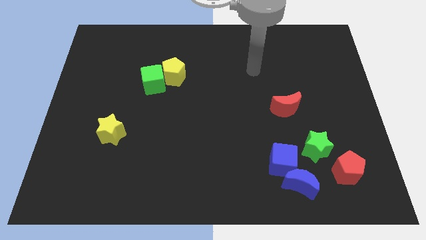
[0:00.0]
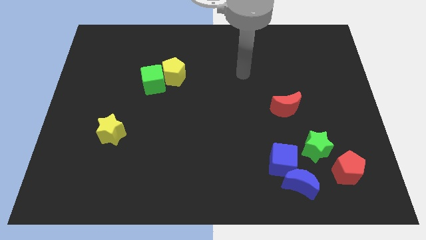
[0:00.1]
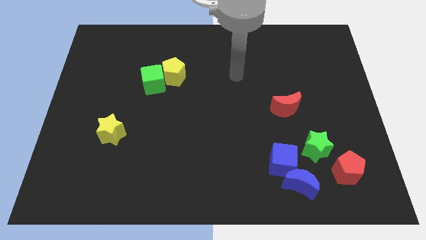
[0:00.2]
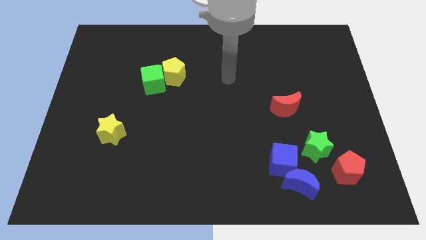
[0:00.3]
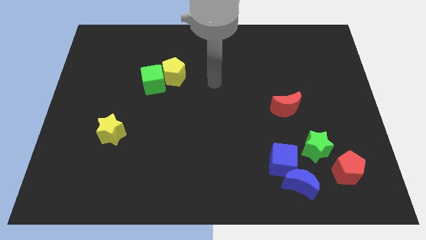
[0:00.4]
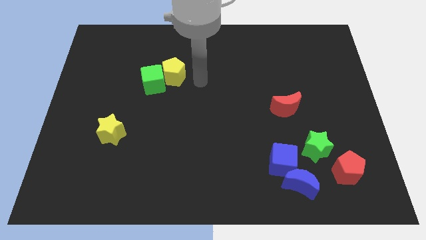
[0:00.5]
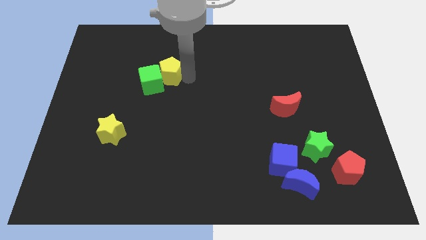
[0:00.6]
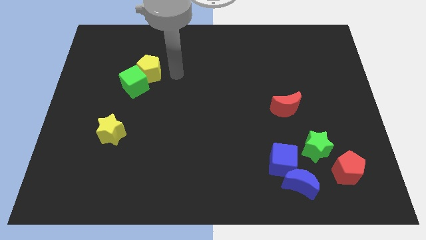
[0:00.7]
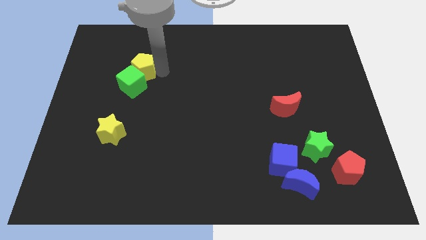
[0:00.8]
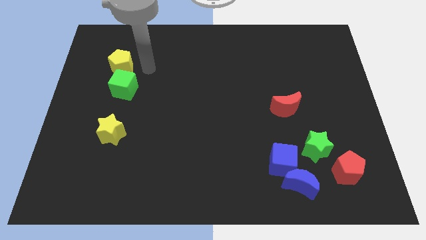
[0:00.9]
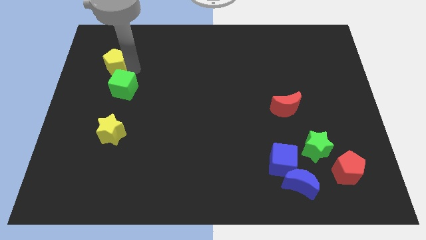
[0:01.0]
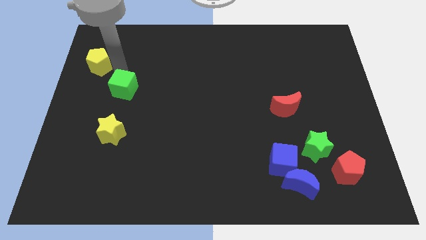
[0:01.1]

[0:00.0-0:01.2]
move the green cube away from the yellow pentagon

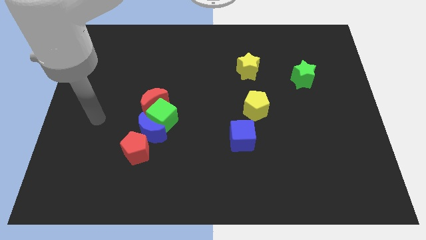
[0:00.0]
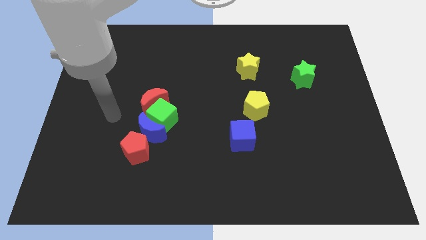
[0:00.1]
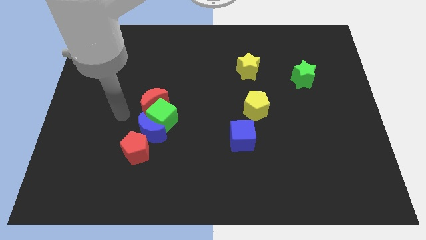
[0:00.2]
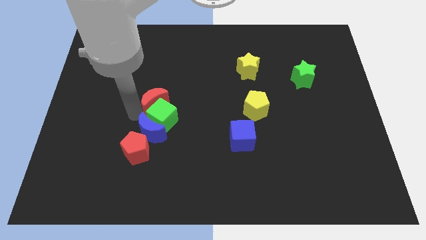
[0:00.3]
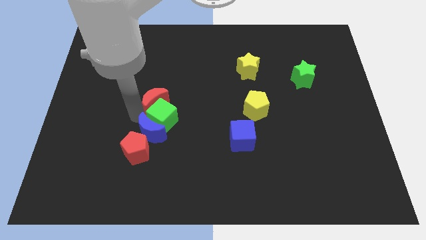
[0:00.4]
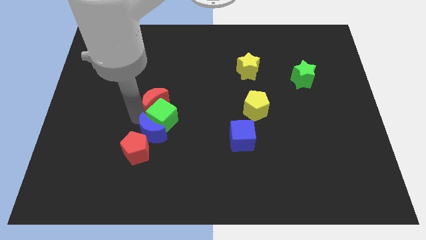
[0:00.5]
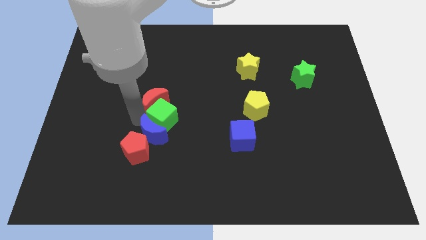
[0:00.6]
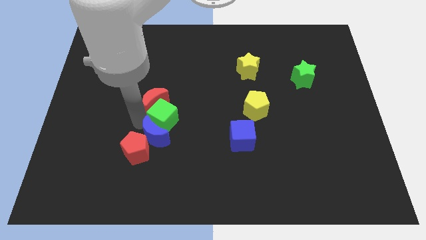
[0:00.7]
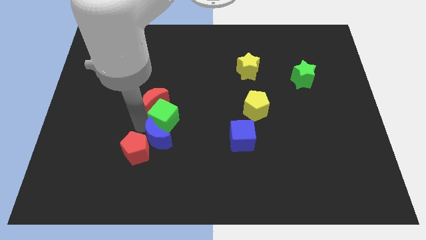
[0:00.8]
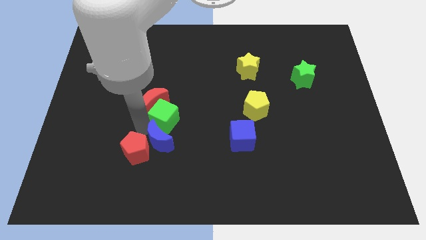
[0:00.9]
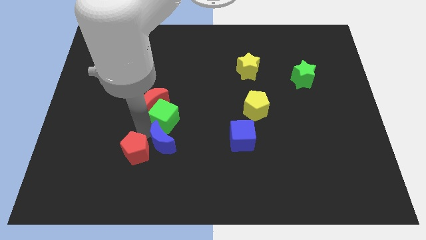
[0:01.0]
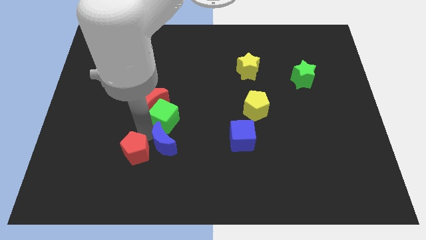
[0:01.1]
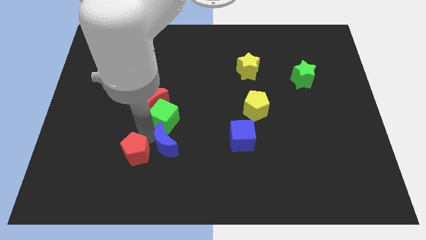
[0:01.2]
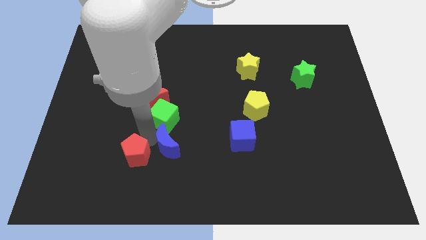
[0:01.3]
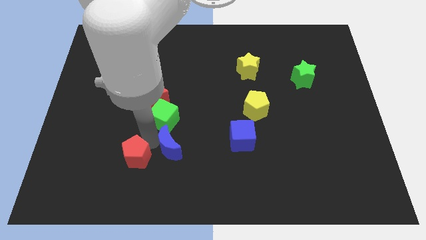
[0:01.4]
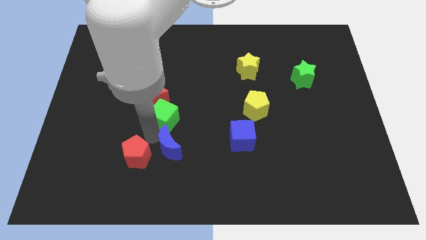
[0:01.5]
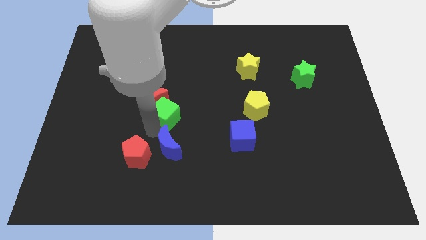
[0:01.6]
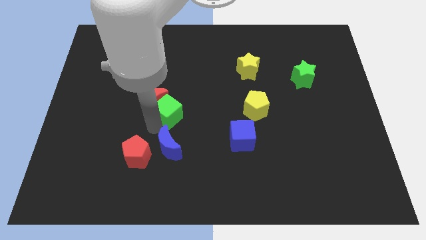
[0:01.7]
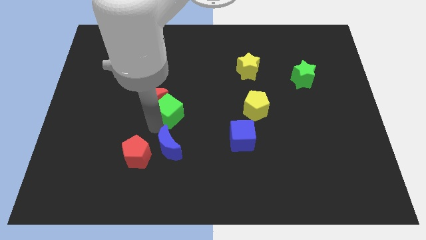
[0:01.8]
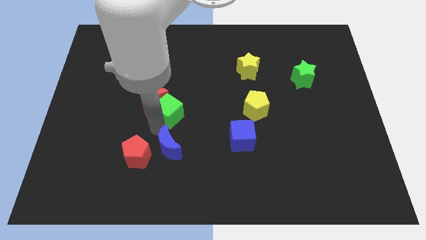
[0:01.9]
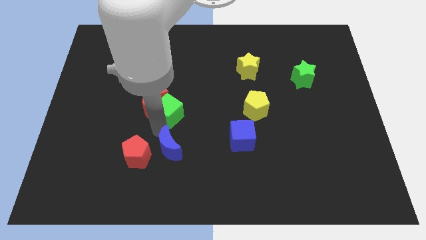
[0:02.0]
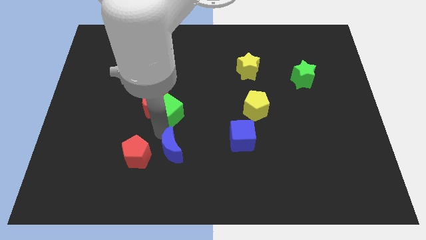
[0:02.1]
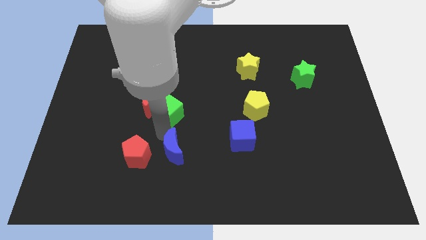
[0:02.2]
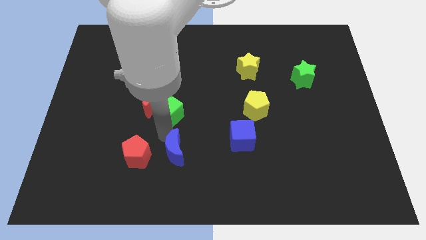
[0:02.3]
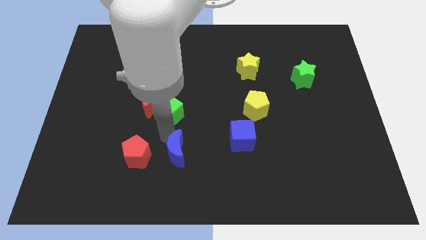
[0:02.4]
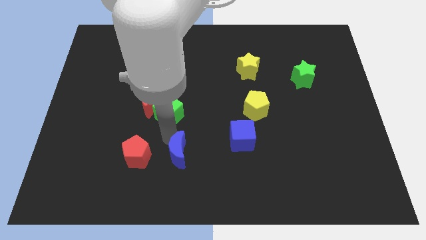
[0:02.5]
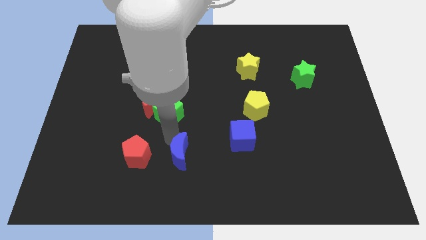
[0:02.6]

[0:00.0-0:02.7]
pull the blue moon apart from the group of blocks

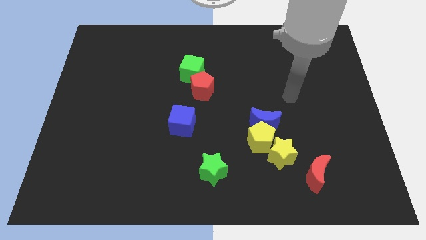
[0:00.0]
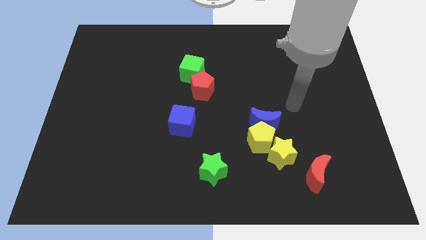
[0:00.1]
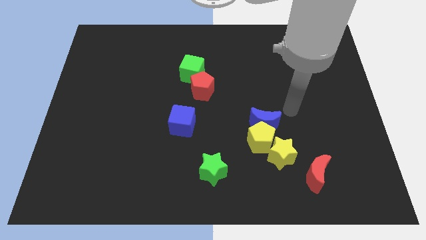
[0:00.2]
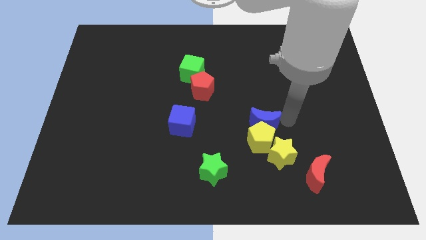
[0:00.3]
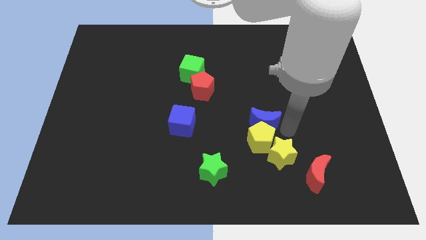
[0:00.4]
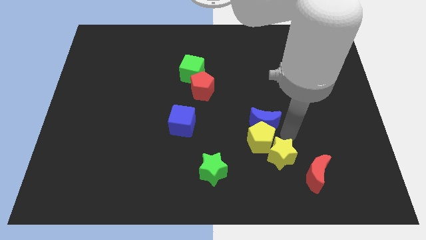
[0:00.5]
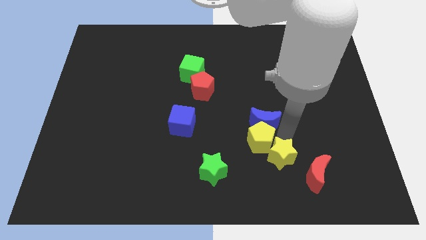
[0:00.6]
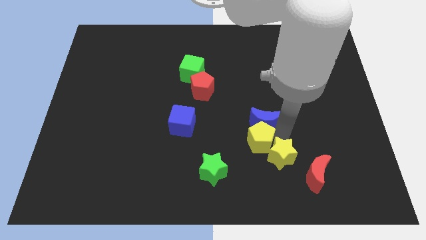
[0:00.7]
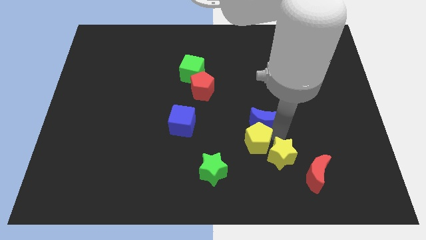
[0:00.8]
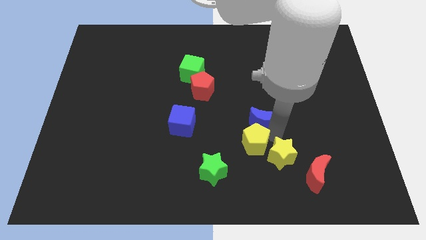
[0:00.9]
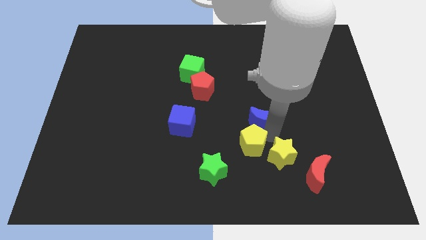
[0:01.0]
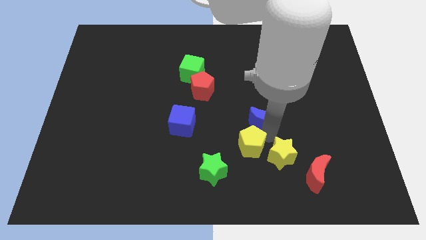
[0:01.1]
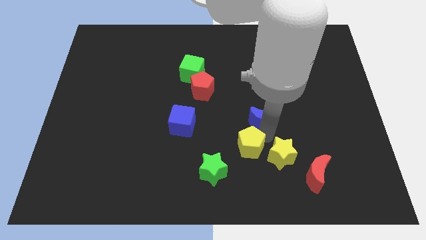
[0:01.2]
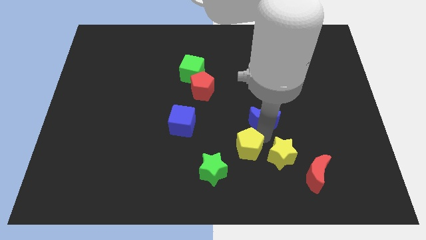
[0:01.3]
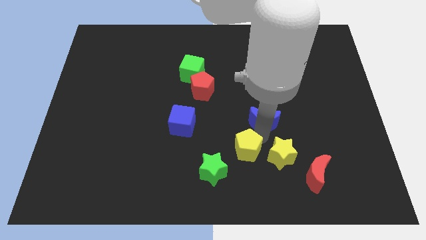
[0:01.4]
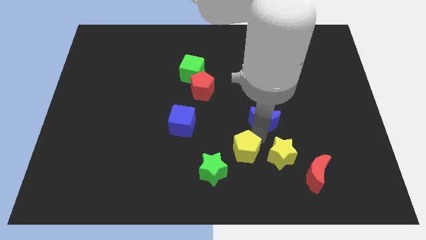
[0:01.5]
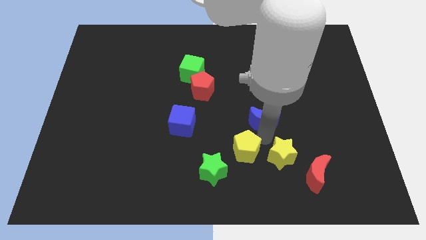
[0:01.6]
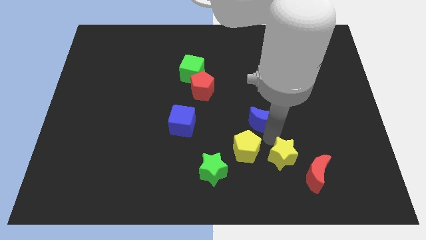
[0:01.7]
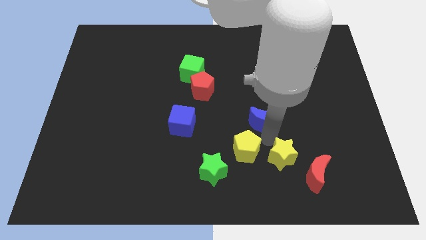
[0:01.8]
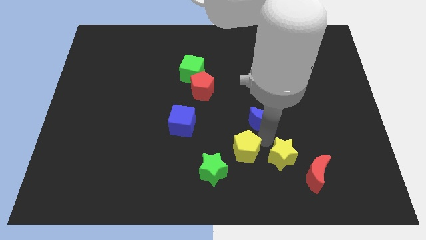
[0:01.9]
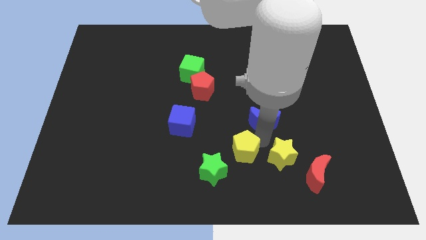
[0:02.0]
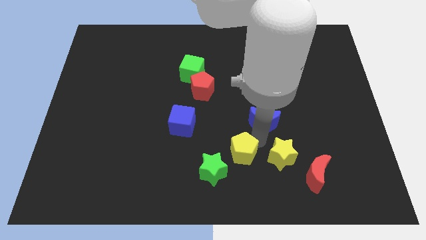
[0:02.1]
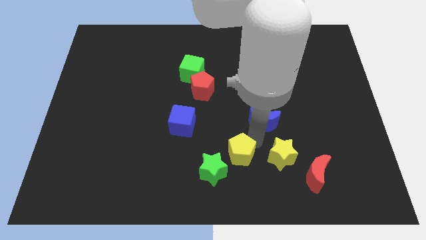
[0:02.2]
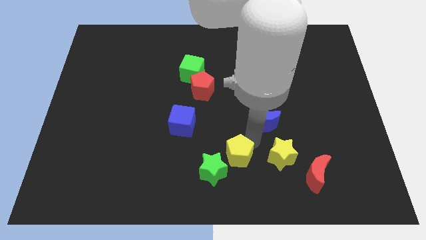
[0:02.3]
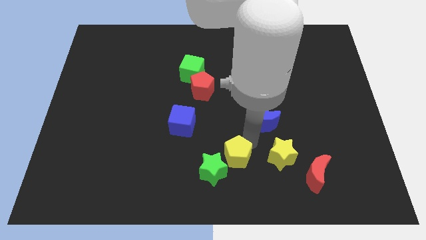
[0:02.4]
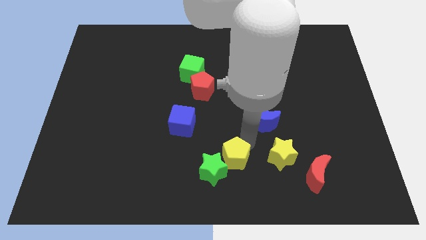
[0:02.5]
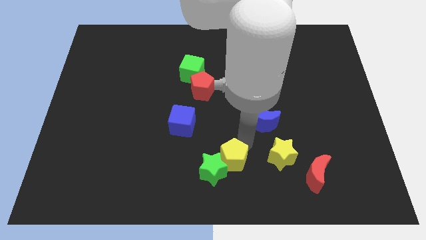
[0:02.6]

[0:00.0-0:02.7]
pull the yellow pentagon apart from the blue moon and yellow star

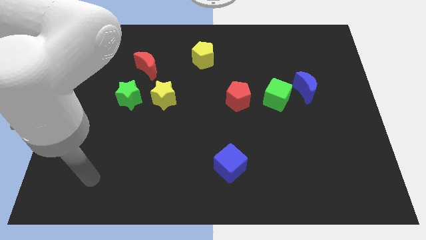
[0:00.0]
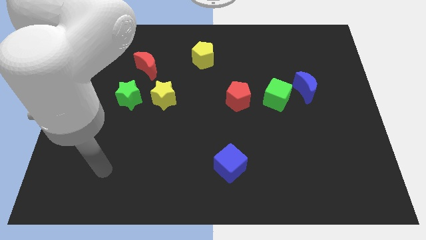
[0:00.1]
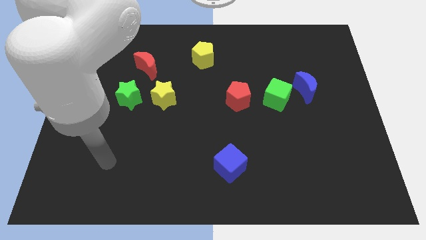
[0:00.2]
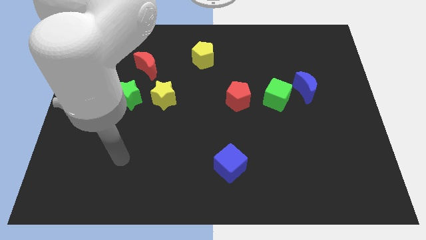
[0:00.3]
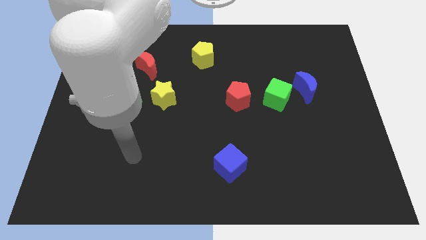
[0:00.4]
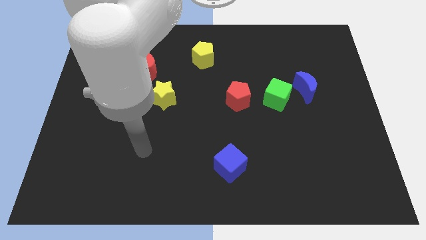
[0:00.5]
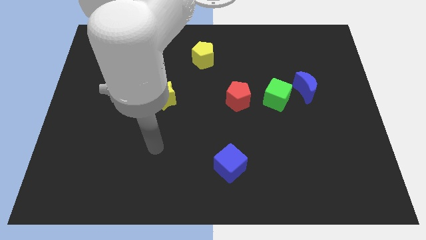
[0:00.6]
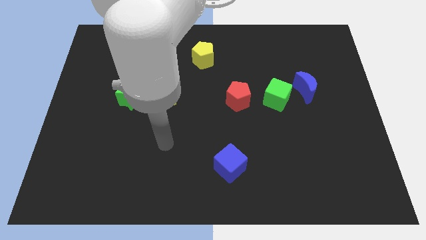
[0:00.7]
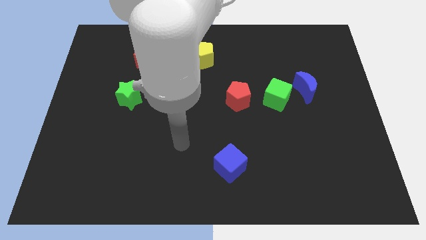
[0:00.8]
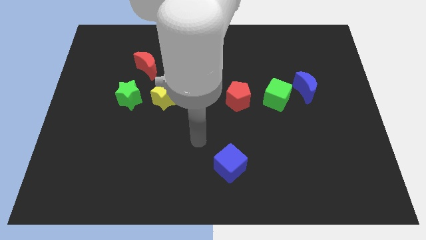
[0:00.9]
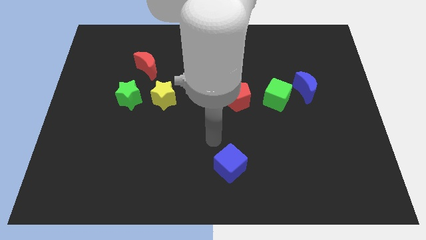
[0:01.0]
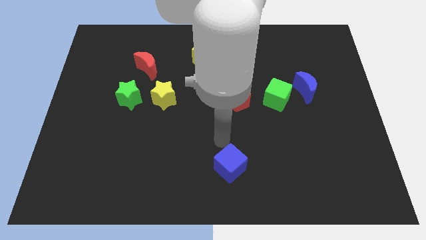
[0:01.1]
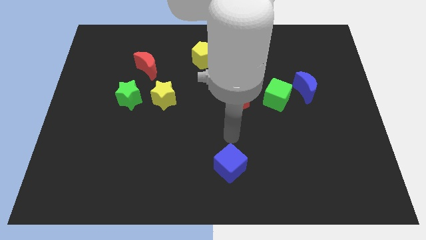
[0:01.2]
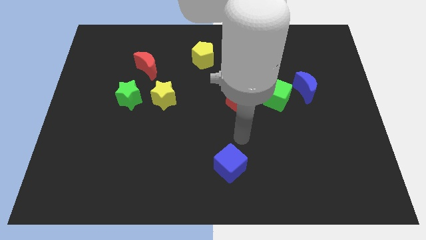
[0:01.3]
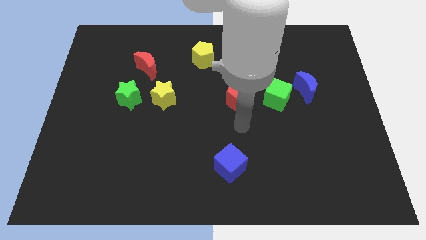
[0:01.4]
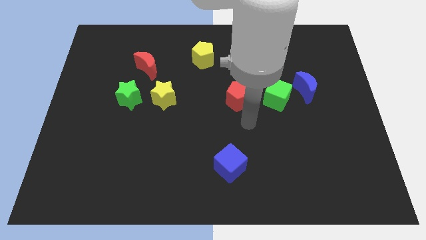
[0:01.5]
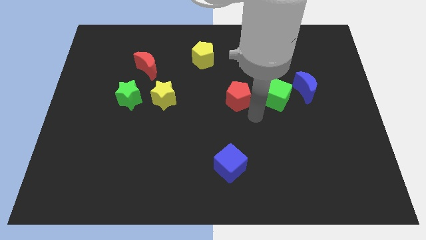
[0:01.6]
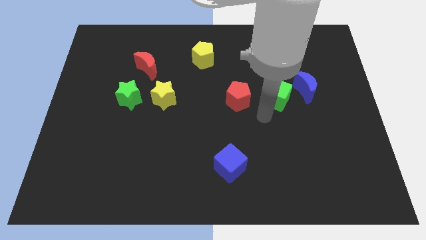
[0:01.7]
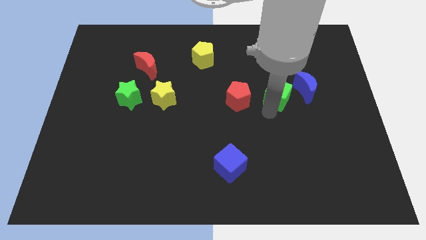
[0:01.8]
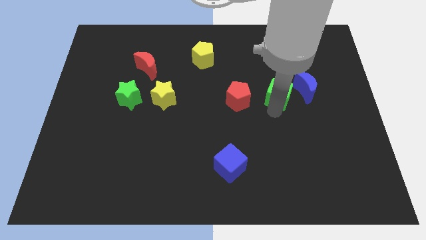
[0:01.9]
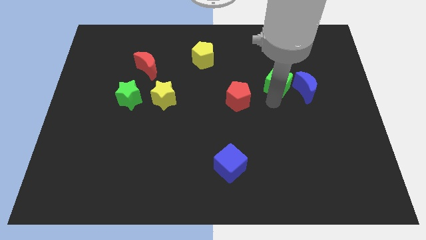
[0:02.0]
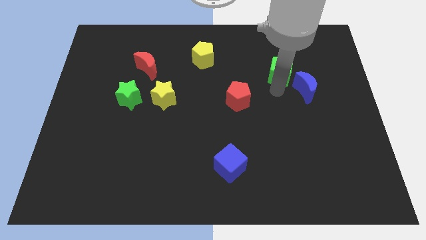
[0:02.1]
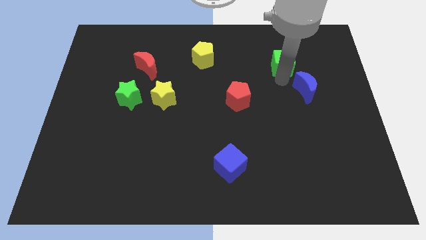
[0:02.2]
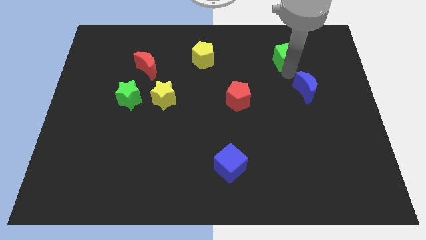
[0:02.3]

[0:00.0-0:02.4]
move the blue moon away from the green cube

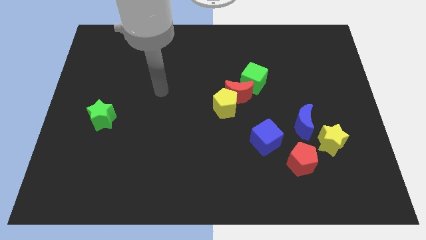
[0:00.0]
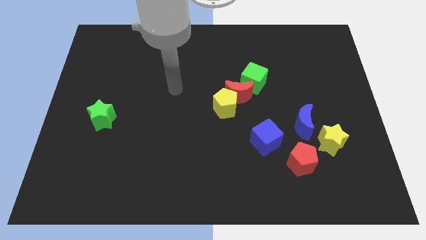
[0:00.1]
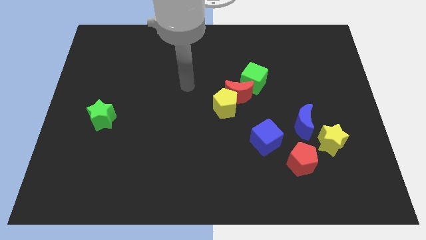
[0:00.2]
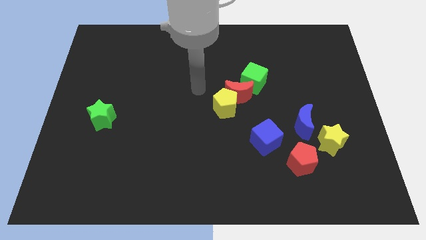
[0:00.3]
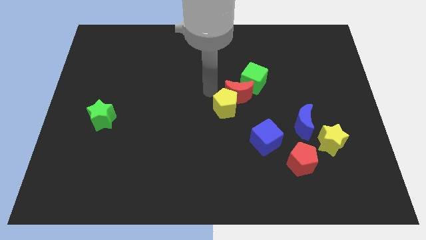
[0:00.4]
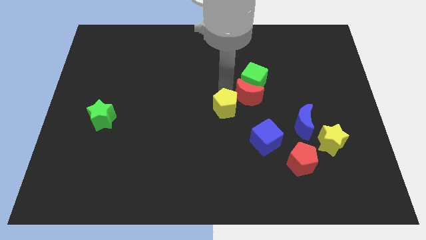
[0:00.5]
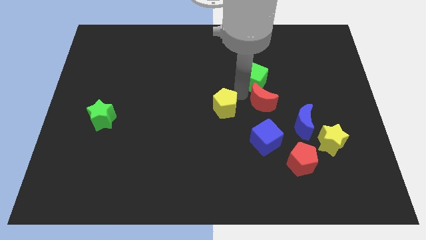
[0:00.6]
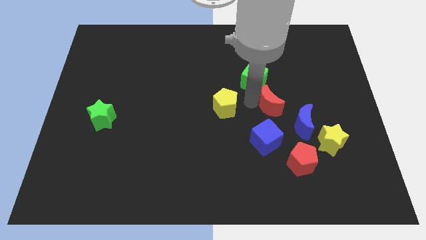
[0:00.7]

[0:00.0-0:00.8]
pull the yellow pentagon apart from the red moon
